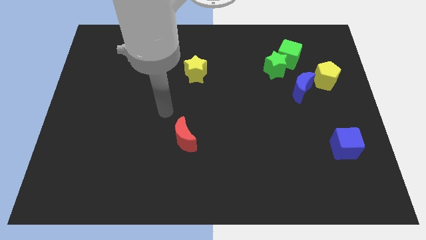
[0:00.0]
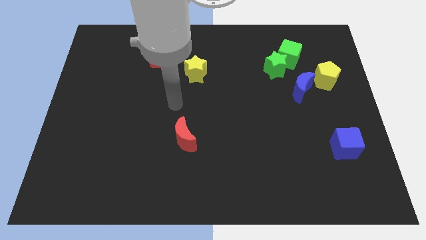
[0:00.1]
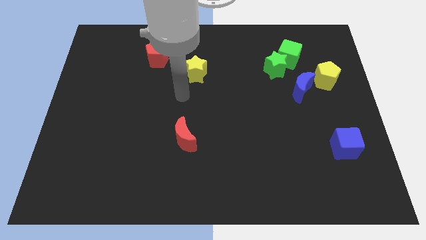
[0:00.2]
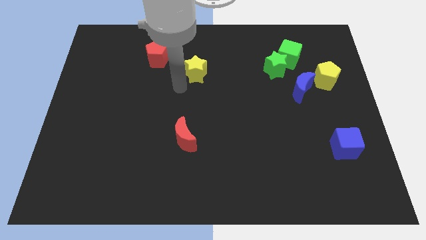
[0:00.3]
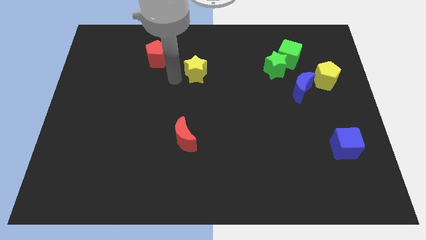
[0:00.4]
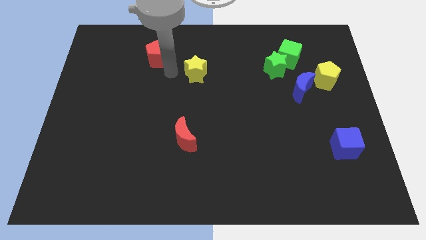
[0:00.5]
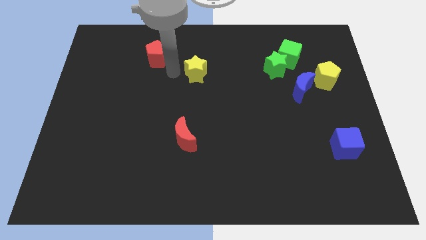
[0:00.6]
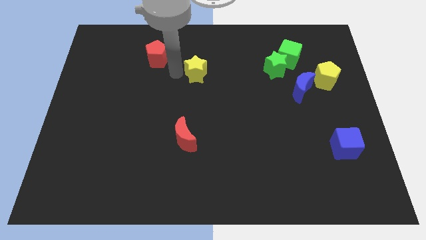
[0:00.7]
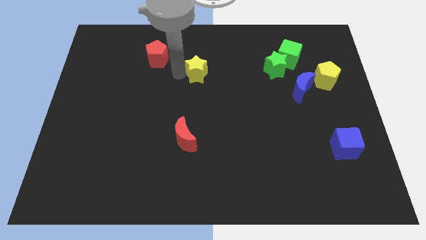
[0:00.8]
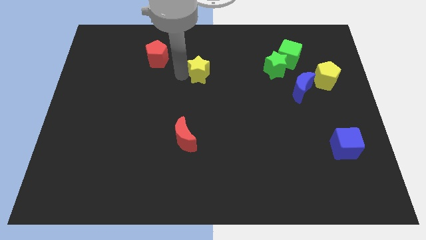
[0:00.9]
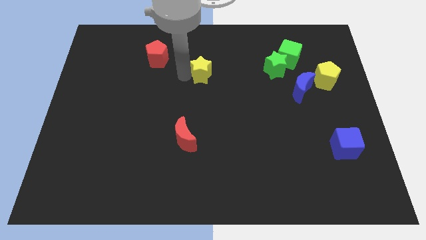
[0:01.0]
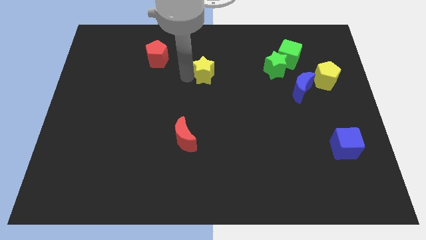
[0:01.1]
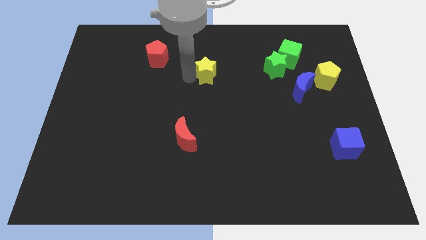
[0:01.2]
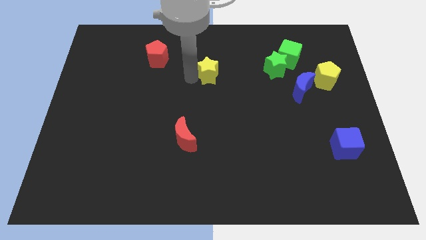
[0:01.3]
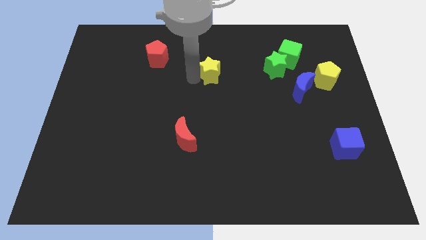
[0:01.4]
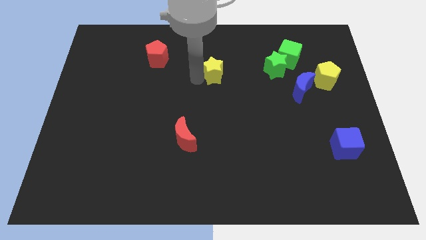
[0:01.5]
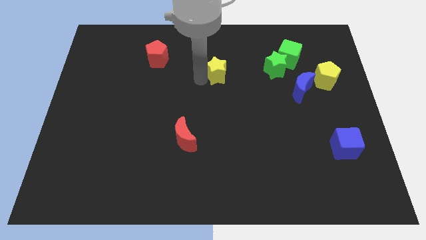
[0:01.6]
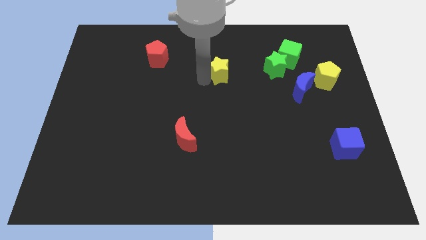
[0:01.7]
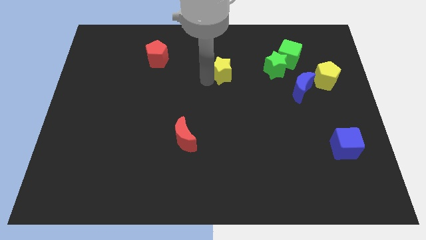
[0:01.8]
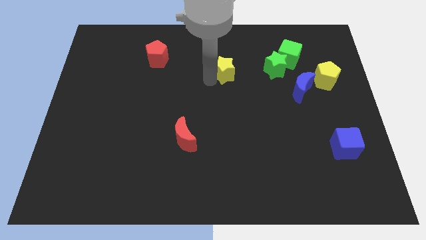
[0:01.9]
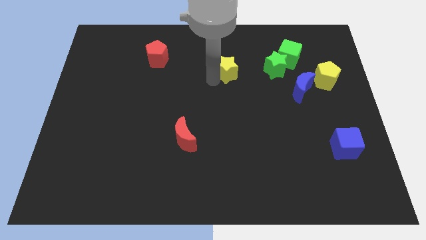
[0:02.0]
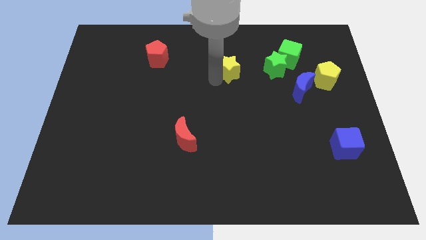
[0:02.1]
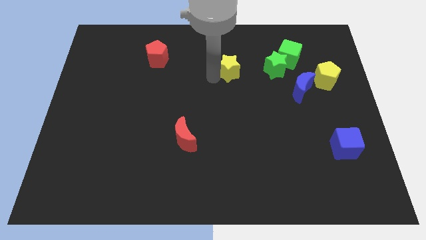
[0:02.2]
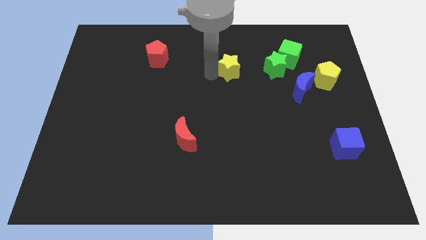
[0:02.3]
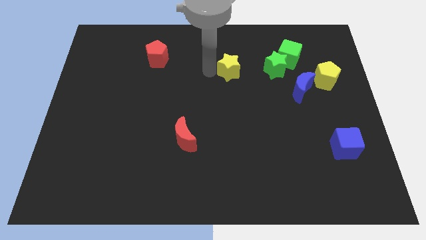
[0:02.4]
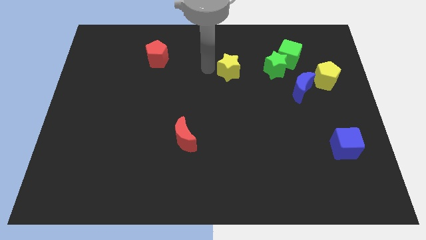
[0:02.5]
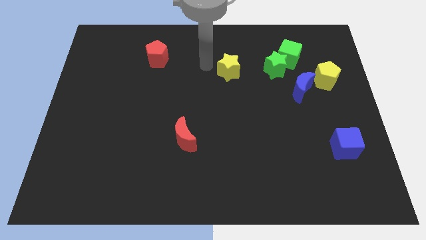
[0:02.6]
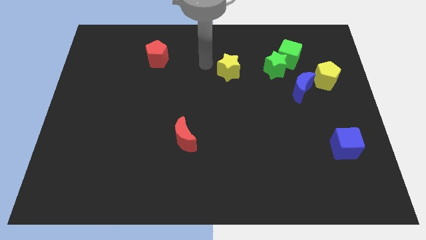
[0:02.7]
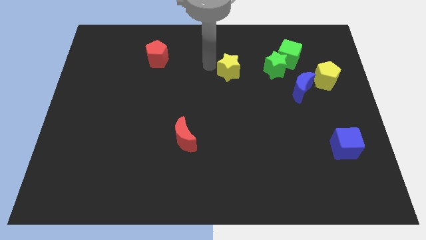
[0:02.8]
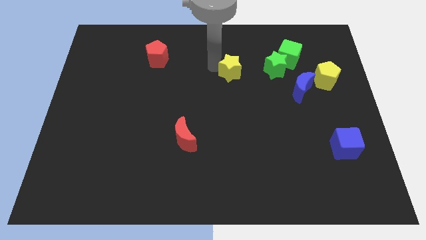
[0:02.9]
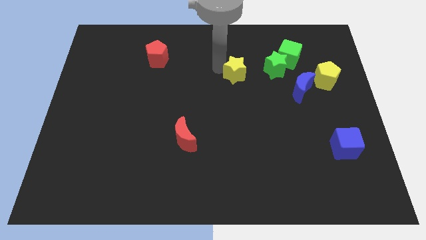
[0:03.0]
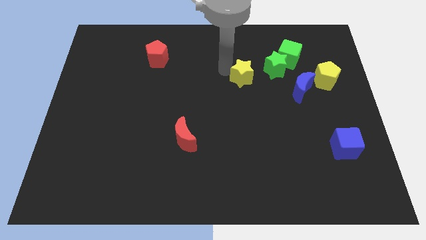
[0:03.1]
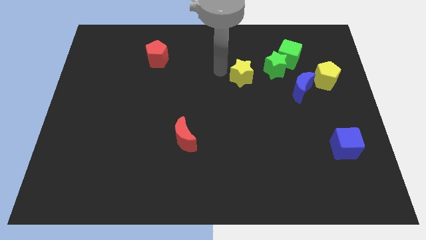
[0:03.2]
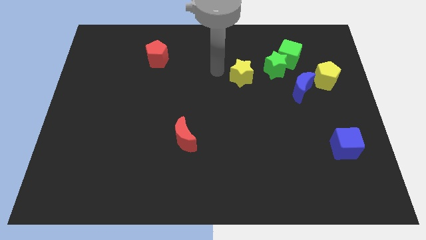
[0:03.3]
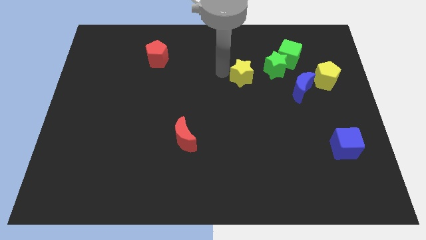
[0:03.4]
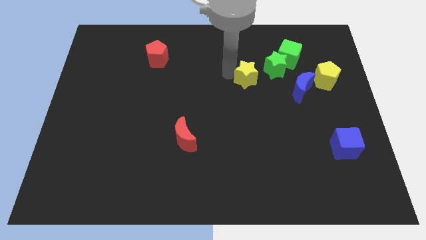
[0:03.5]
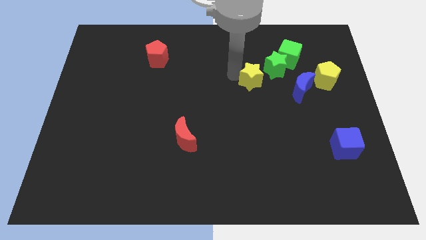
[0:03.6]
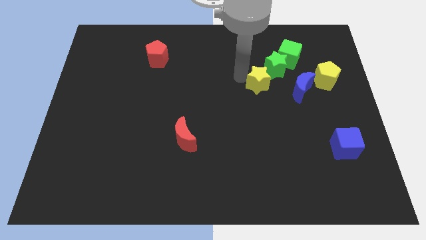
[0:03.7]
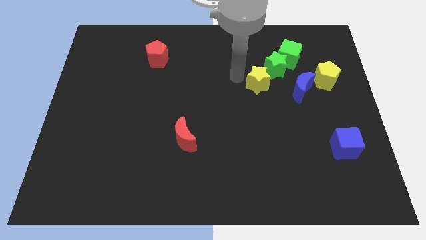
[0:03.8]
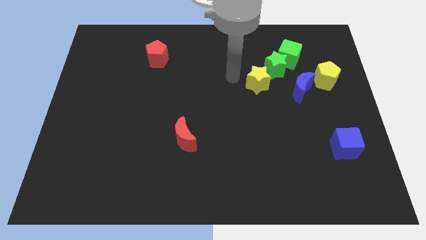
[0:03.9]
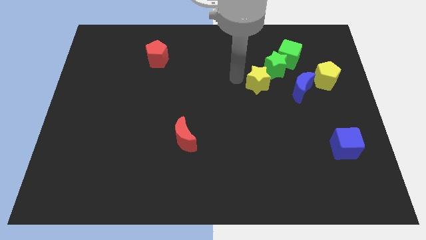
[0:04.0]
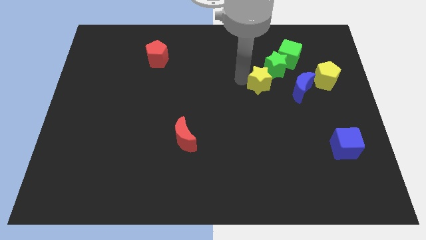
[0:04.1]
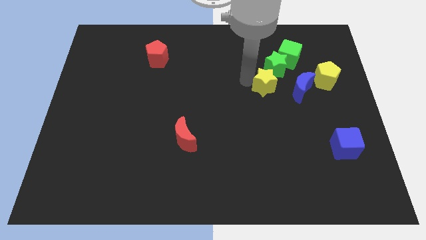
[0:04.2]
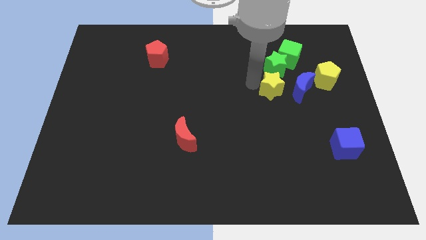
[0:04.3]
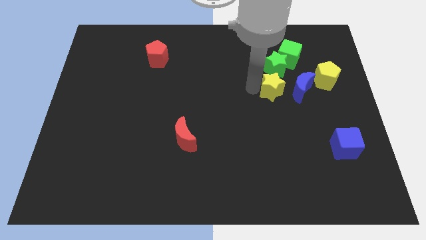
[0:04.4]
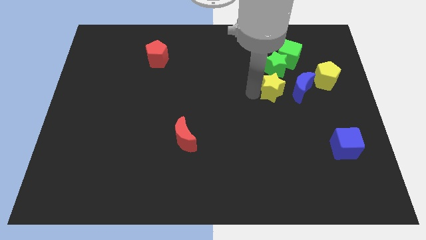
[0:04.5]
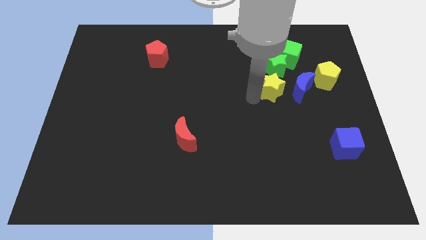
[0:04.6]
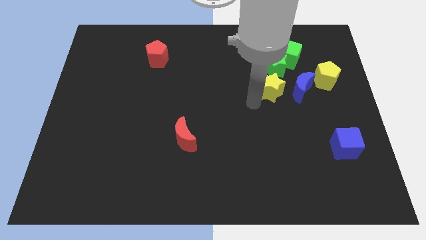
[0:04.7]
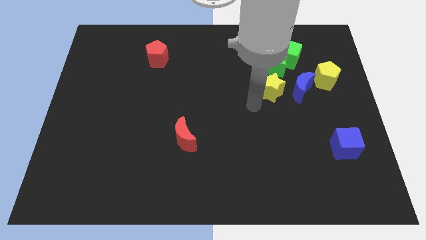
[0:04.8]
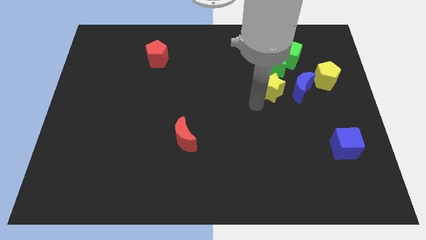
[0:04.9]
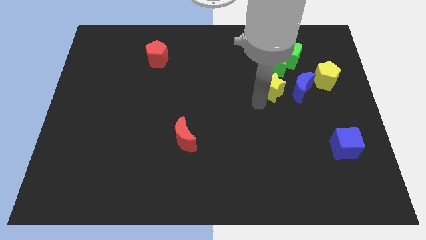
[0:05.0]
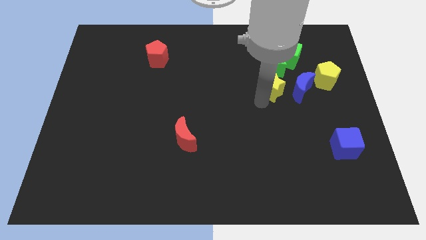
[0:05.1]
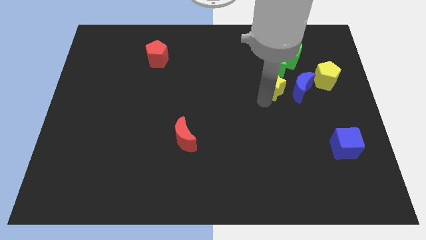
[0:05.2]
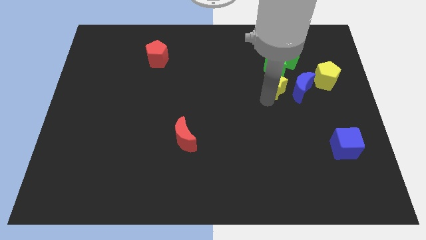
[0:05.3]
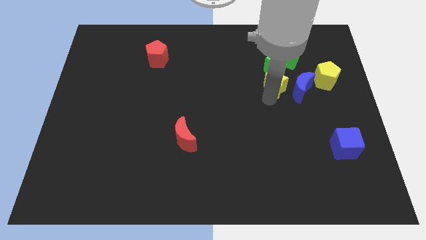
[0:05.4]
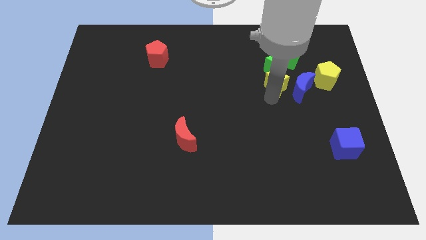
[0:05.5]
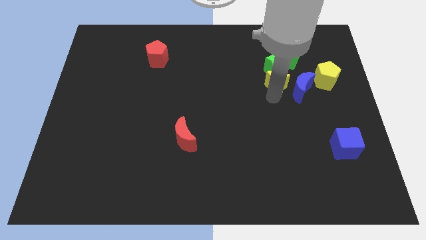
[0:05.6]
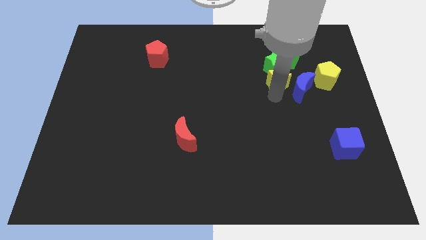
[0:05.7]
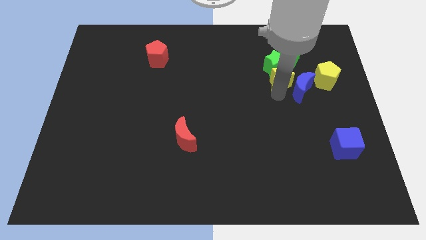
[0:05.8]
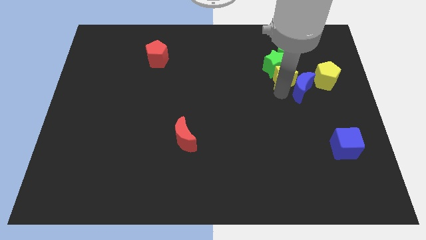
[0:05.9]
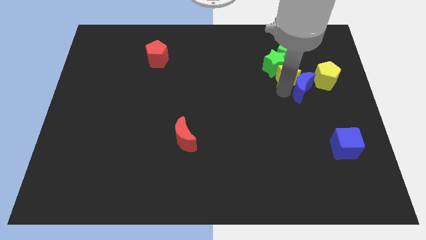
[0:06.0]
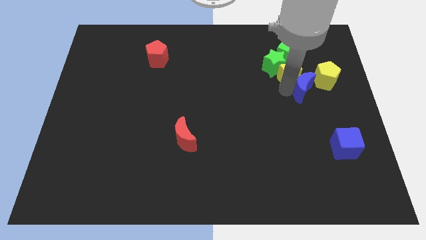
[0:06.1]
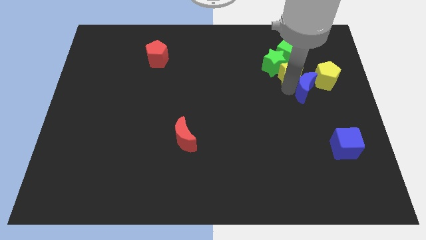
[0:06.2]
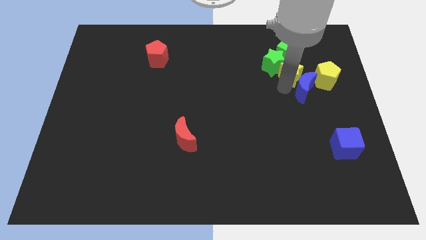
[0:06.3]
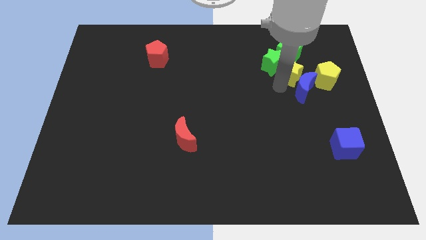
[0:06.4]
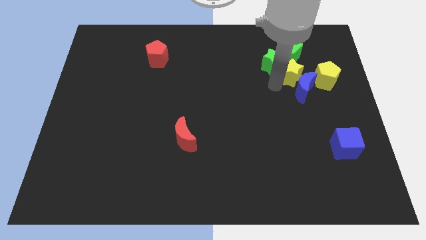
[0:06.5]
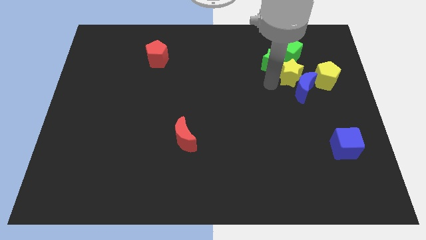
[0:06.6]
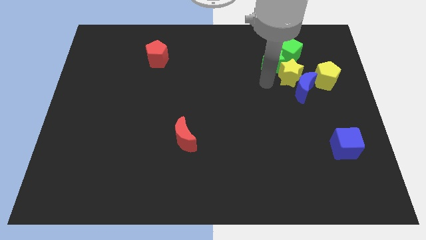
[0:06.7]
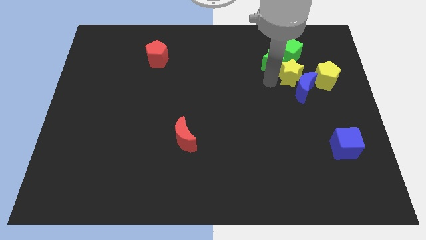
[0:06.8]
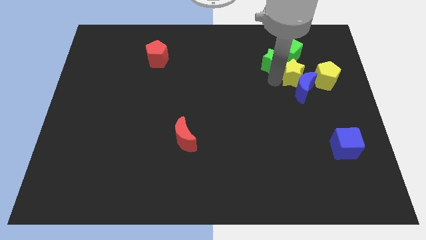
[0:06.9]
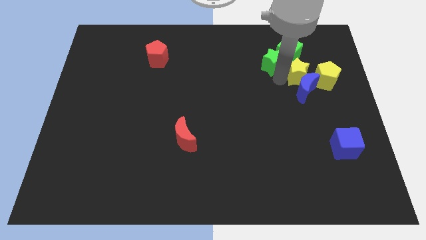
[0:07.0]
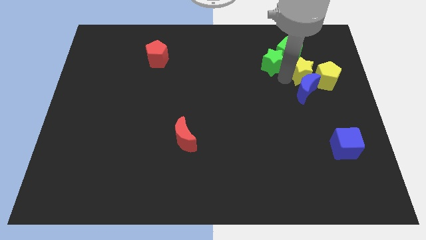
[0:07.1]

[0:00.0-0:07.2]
slide the yellow star towards the yellow pentagon
